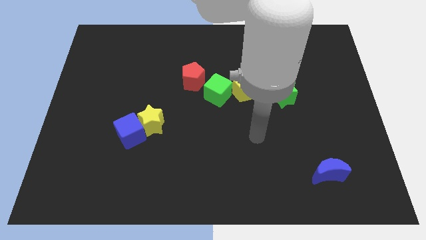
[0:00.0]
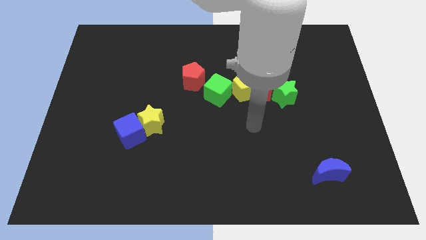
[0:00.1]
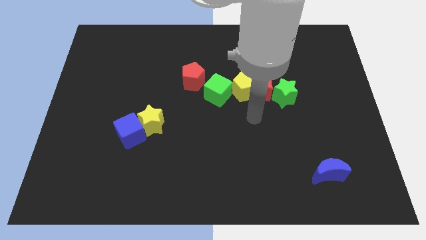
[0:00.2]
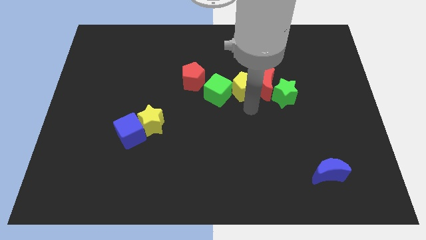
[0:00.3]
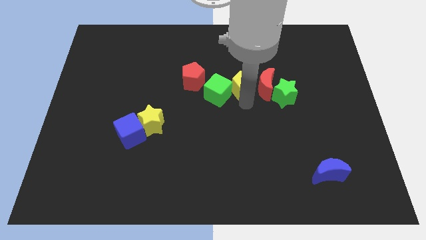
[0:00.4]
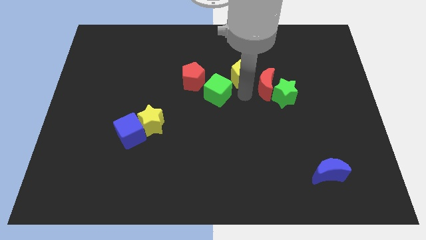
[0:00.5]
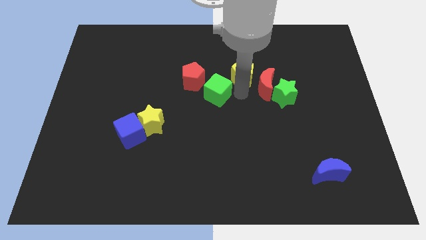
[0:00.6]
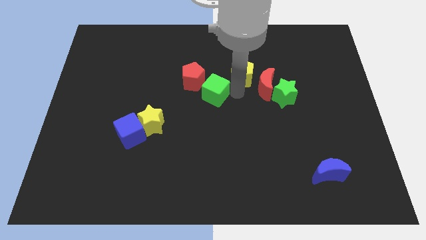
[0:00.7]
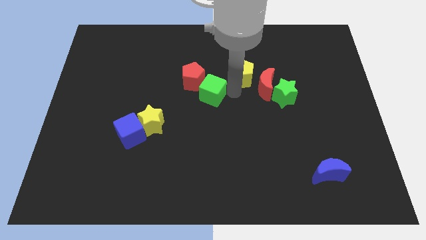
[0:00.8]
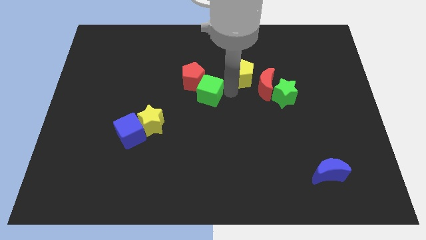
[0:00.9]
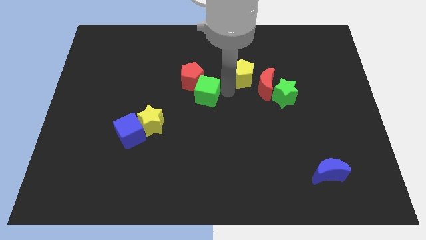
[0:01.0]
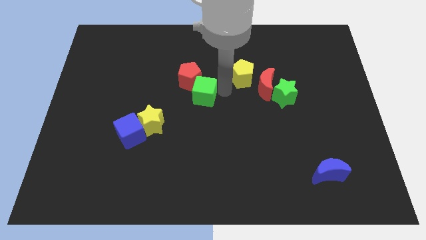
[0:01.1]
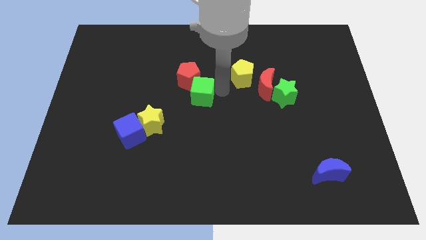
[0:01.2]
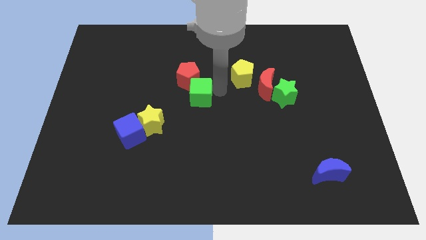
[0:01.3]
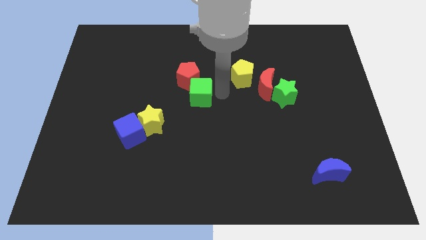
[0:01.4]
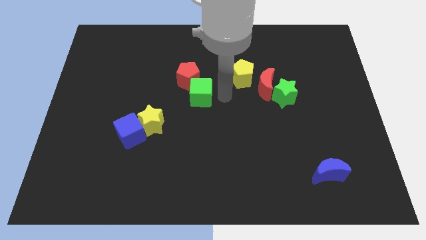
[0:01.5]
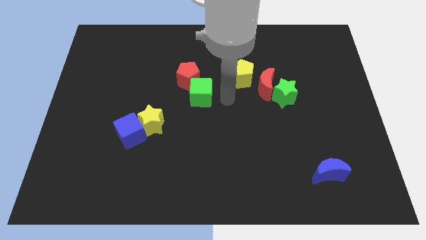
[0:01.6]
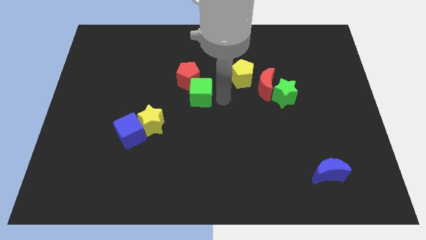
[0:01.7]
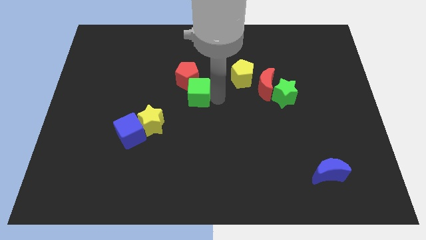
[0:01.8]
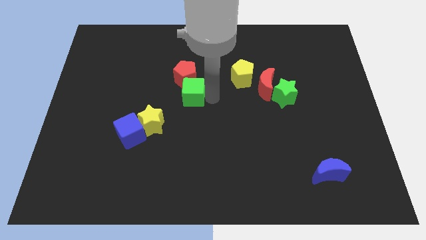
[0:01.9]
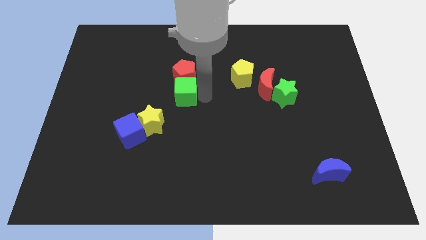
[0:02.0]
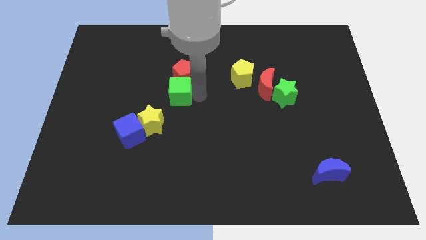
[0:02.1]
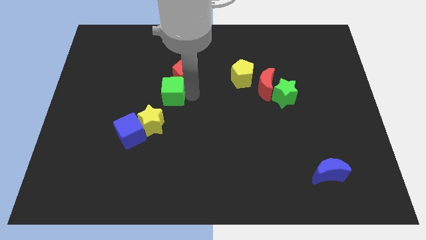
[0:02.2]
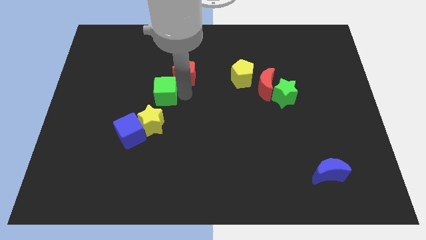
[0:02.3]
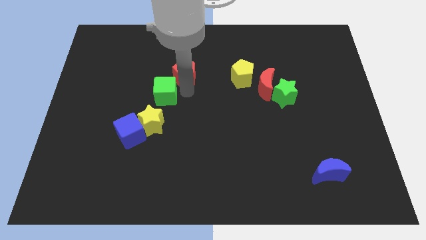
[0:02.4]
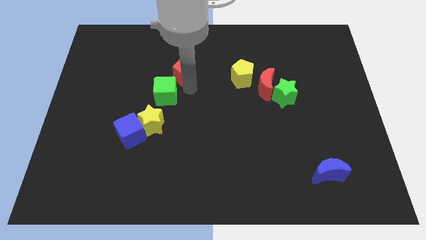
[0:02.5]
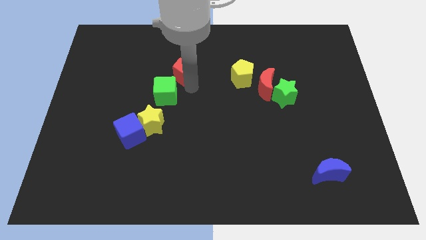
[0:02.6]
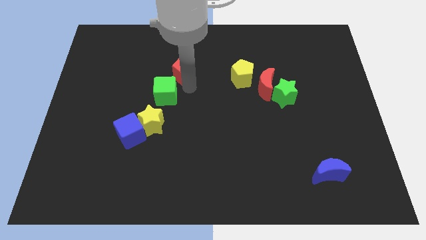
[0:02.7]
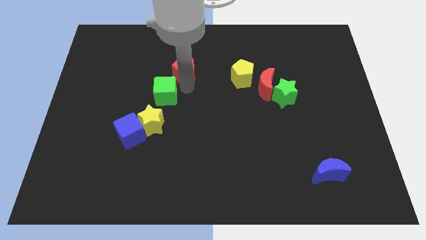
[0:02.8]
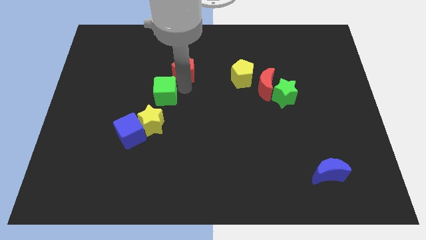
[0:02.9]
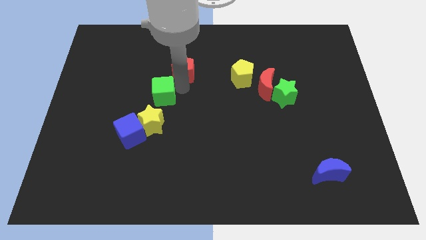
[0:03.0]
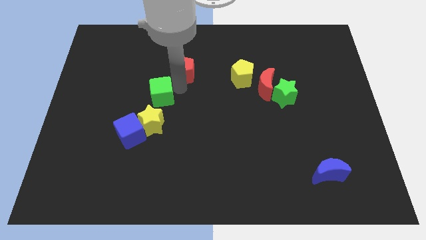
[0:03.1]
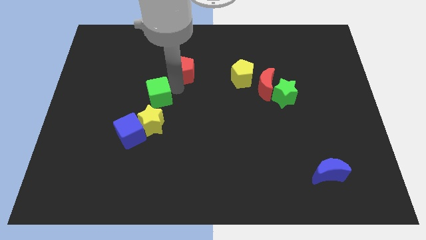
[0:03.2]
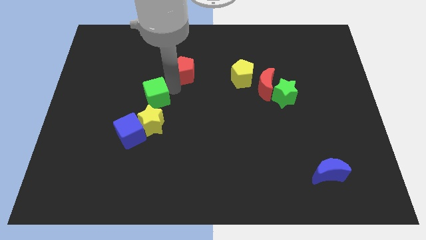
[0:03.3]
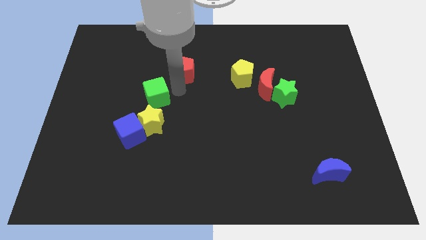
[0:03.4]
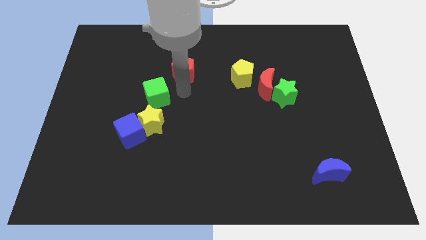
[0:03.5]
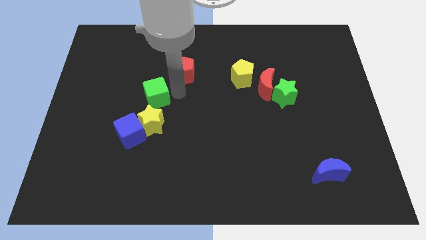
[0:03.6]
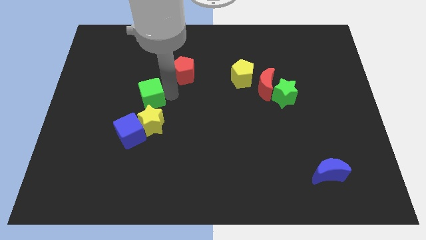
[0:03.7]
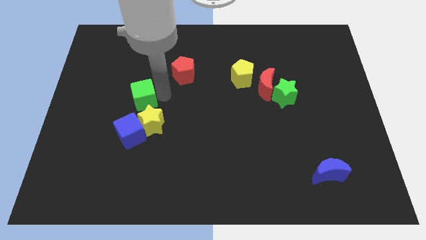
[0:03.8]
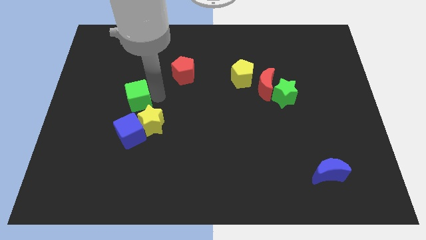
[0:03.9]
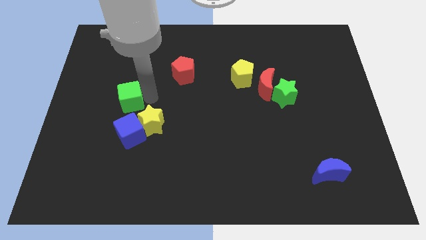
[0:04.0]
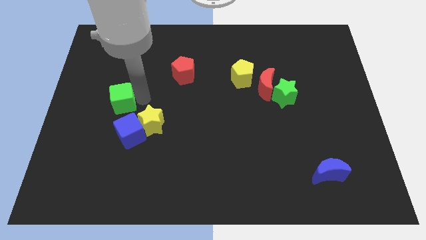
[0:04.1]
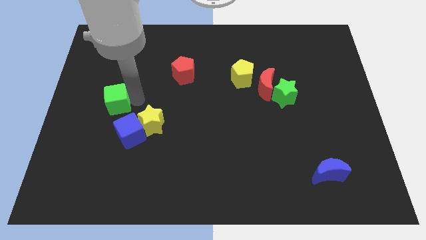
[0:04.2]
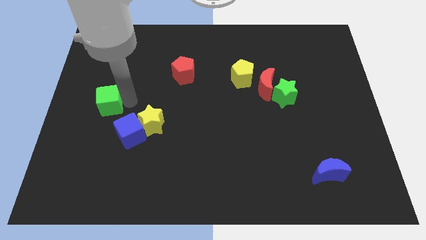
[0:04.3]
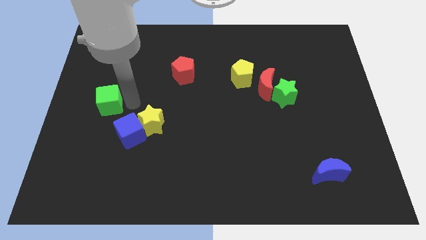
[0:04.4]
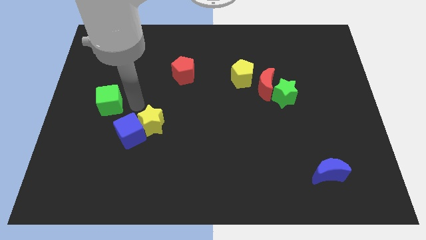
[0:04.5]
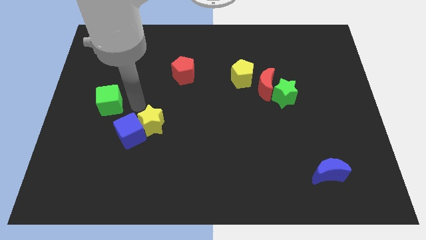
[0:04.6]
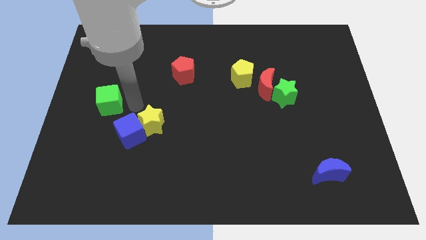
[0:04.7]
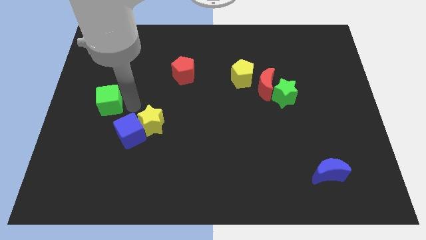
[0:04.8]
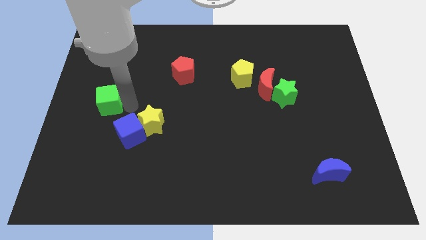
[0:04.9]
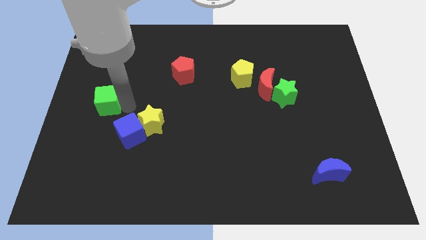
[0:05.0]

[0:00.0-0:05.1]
slide the green cube to the left side

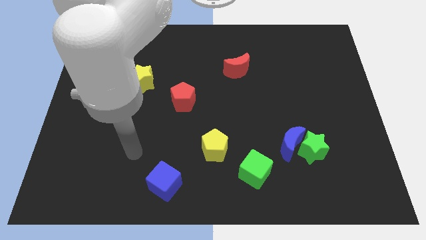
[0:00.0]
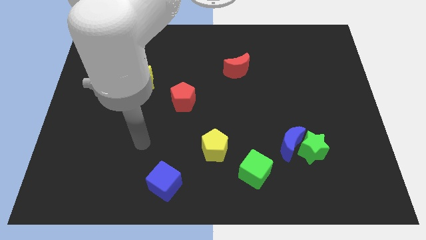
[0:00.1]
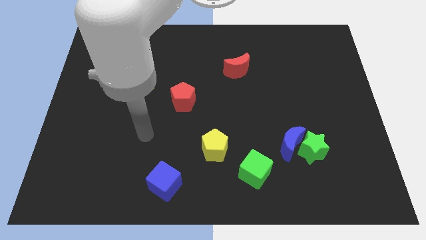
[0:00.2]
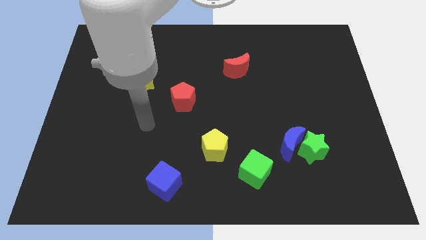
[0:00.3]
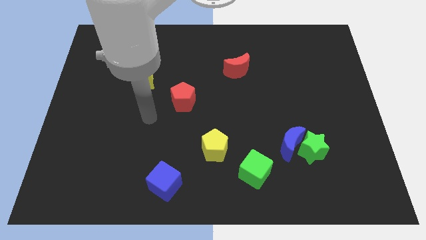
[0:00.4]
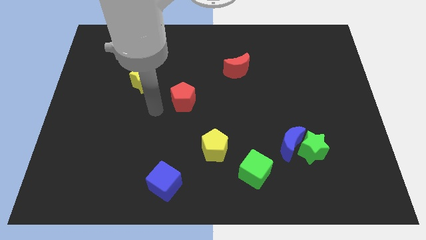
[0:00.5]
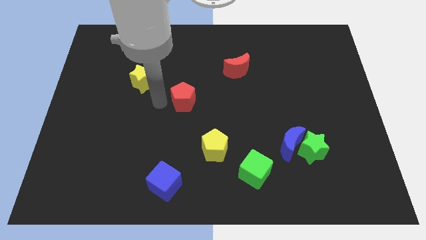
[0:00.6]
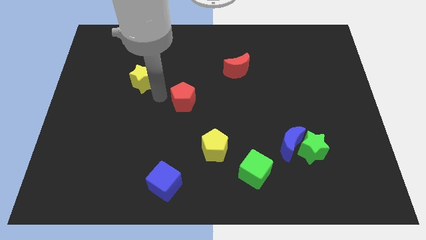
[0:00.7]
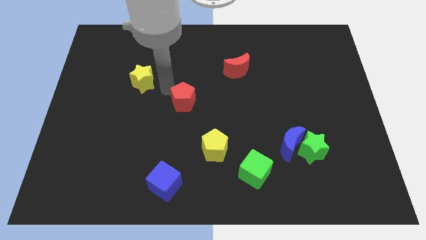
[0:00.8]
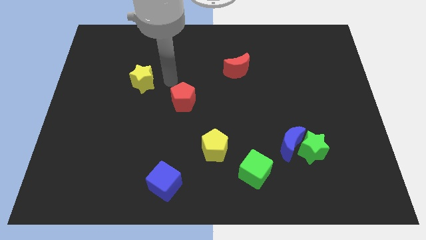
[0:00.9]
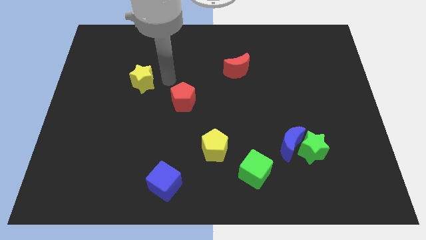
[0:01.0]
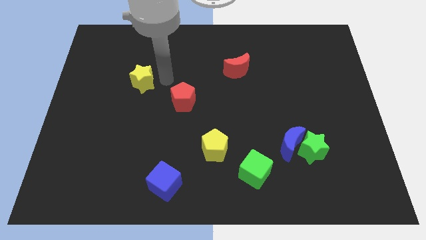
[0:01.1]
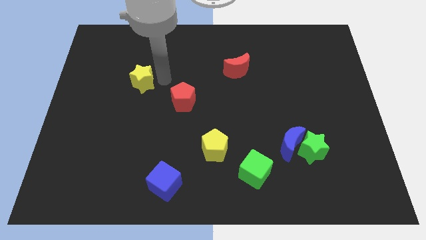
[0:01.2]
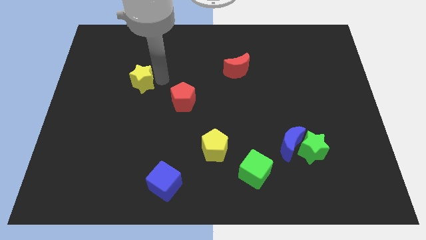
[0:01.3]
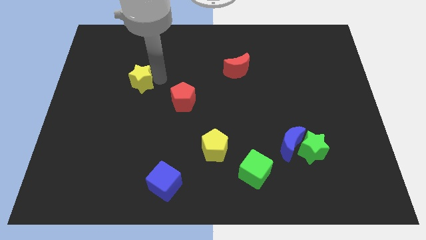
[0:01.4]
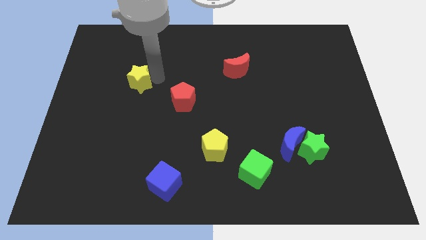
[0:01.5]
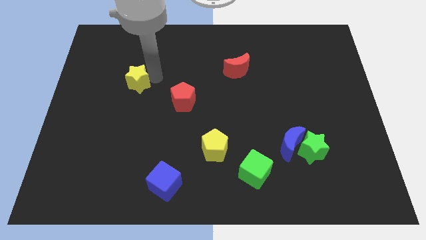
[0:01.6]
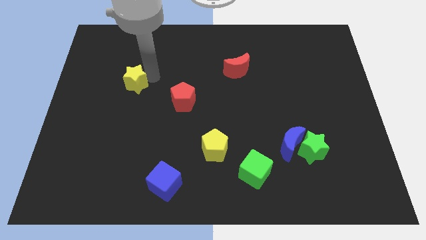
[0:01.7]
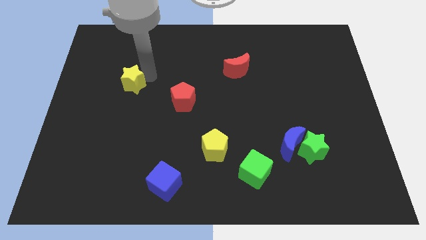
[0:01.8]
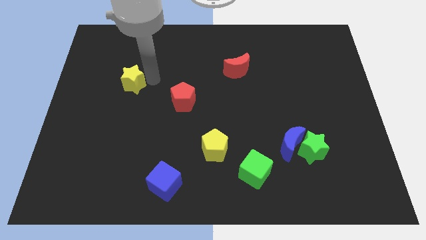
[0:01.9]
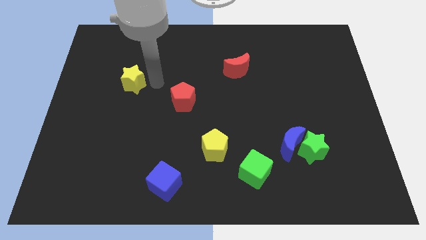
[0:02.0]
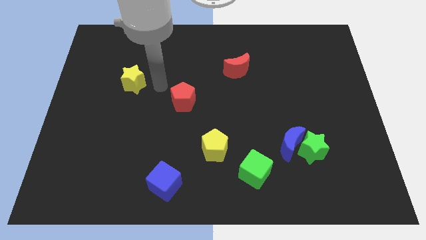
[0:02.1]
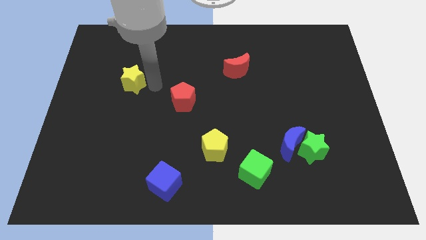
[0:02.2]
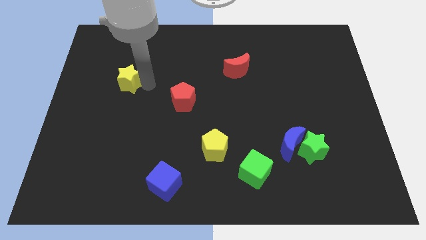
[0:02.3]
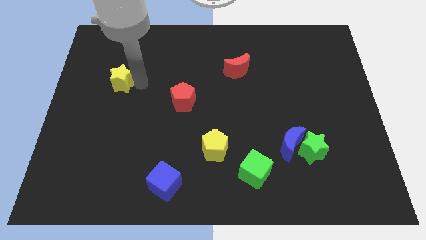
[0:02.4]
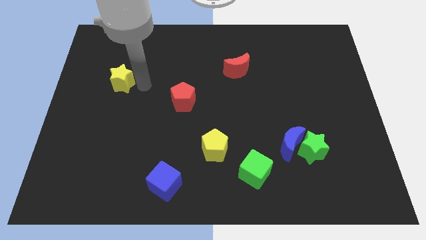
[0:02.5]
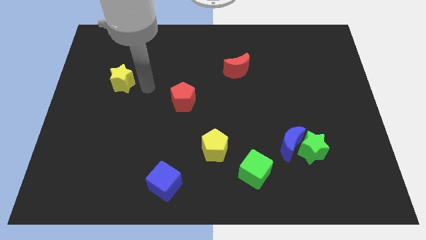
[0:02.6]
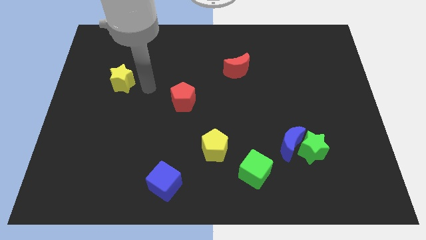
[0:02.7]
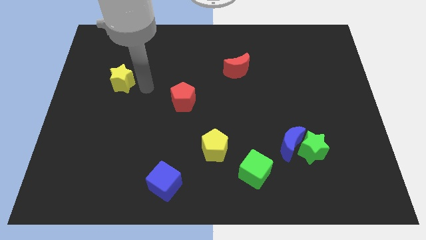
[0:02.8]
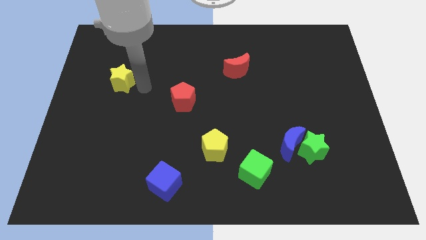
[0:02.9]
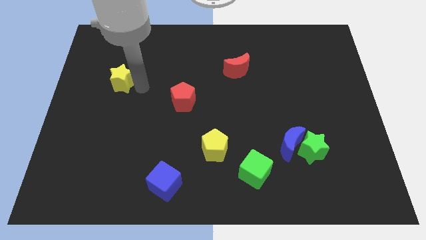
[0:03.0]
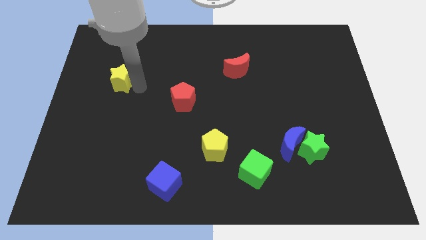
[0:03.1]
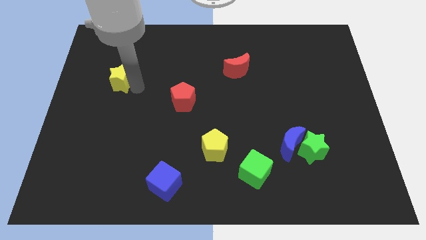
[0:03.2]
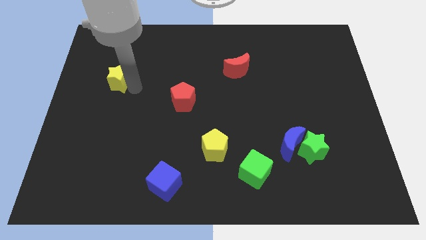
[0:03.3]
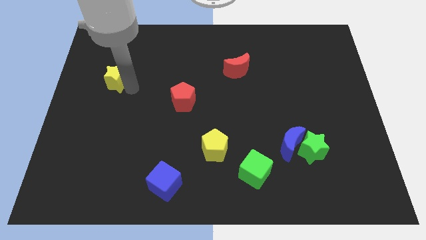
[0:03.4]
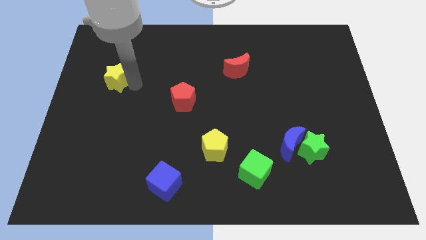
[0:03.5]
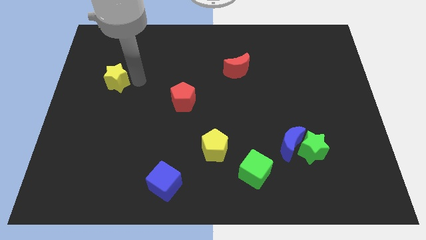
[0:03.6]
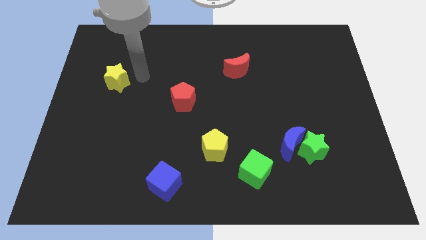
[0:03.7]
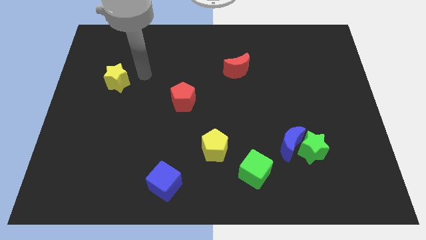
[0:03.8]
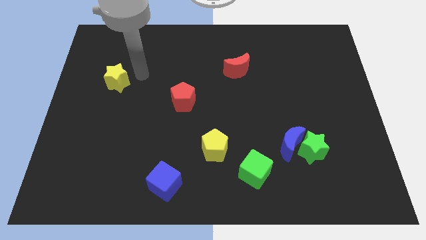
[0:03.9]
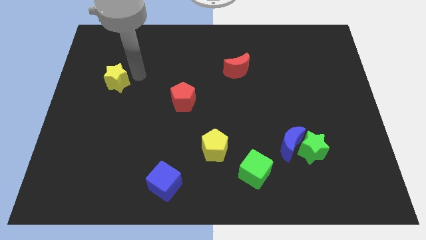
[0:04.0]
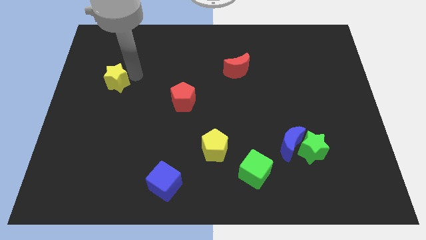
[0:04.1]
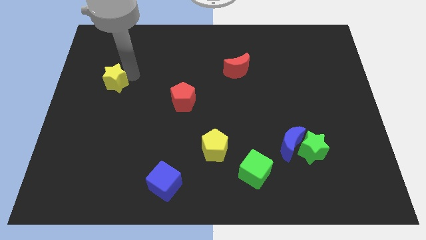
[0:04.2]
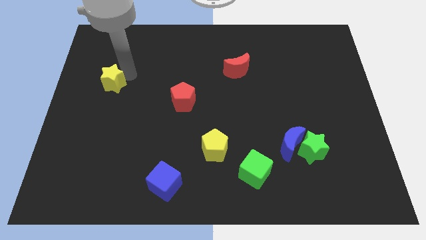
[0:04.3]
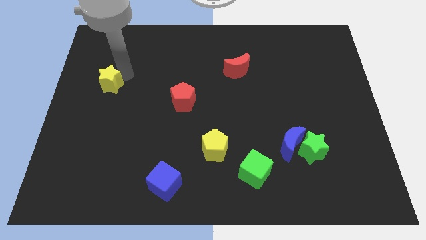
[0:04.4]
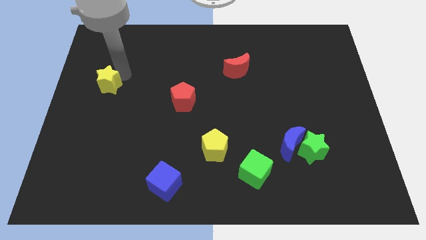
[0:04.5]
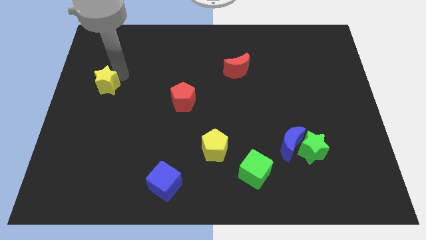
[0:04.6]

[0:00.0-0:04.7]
push the yellow star to the left side of the board
